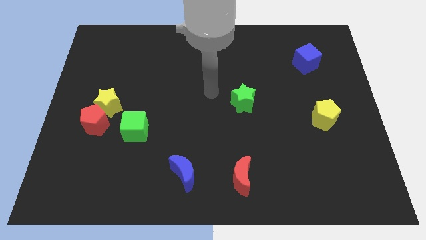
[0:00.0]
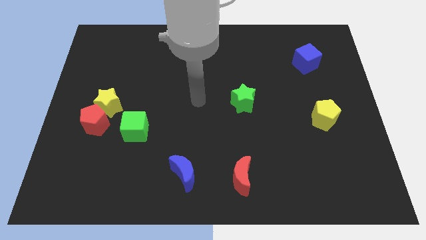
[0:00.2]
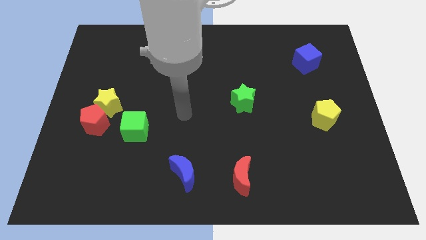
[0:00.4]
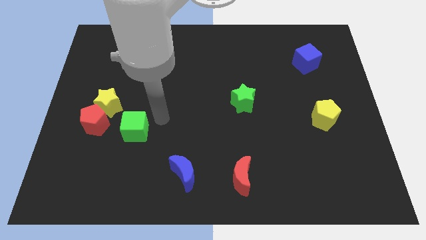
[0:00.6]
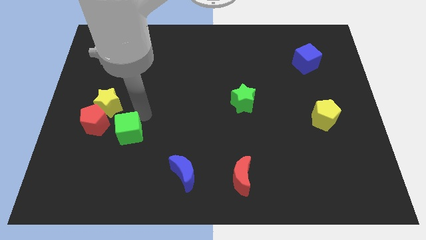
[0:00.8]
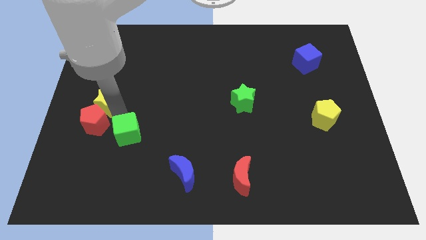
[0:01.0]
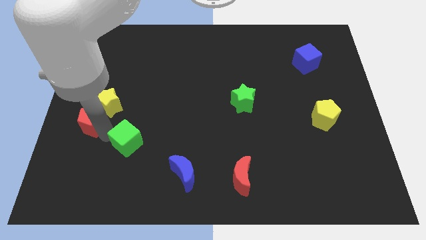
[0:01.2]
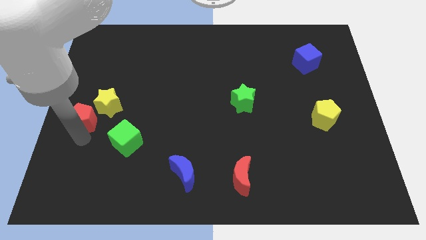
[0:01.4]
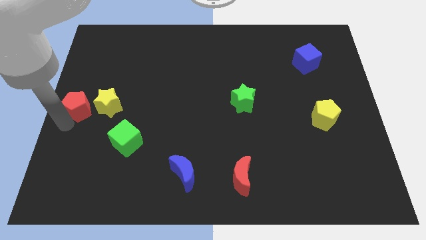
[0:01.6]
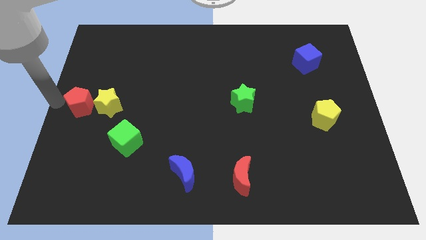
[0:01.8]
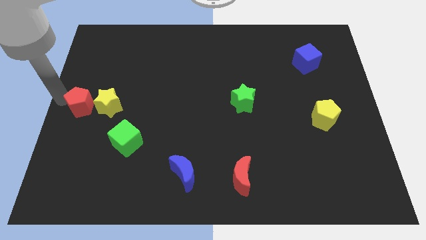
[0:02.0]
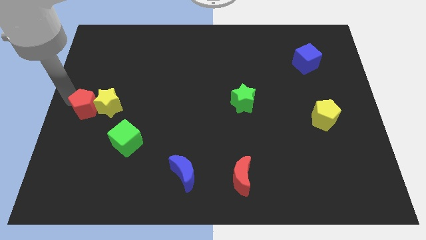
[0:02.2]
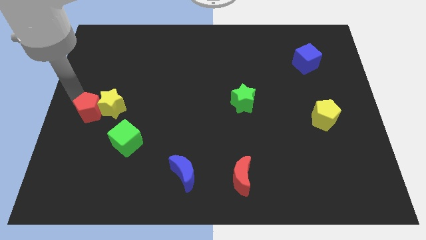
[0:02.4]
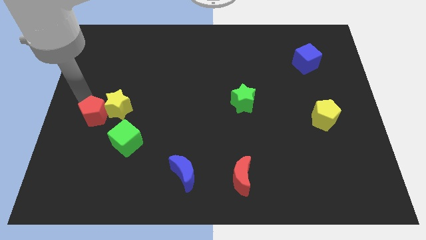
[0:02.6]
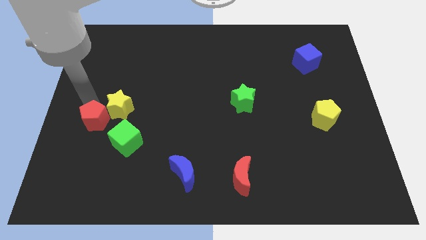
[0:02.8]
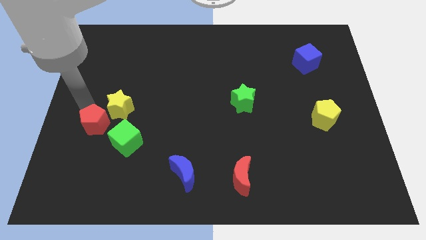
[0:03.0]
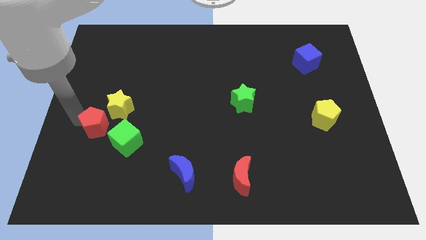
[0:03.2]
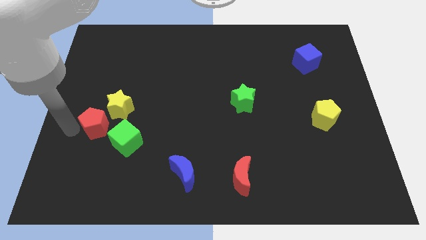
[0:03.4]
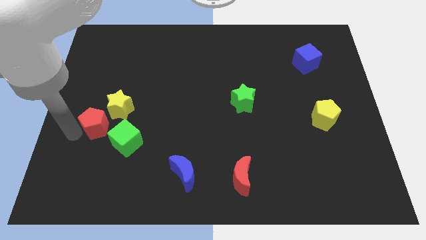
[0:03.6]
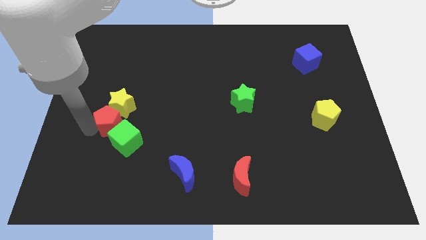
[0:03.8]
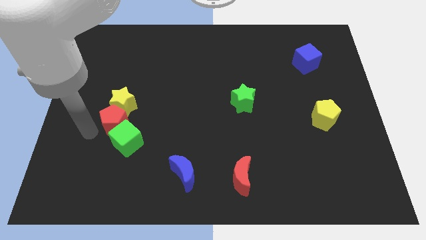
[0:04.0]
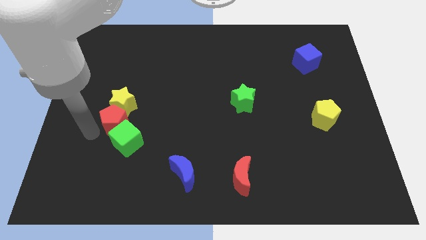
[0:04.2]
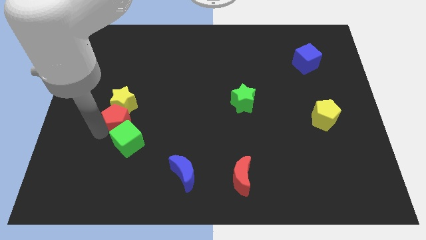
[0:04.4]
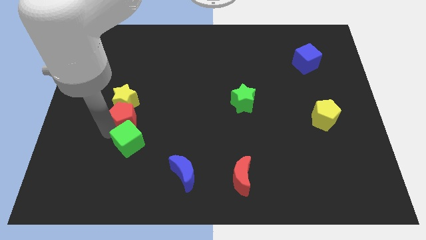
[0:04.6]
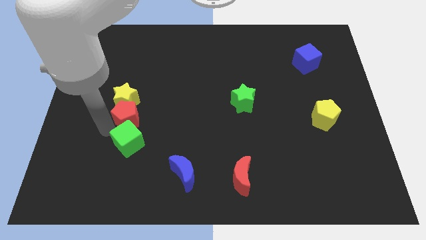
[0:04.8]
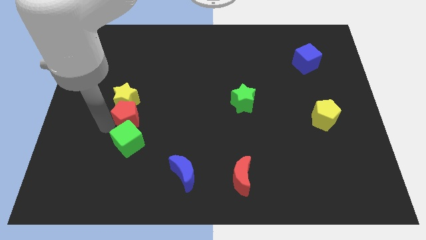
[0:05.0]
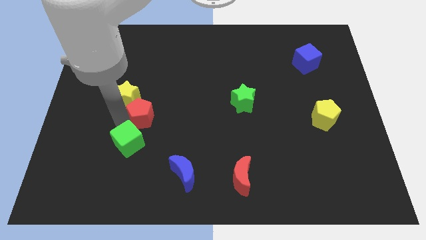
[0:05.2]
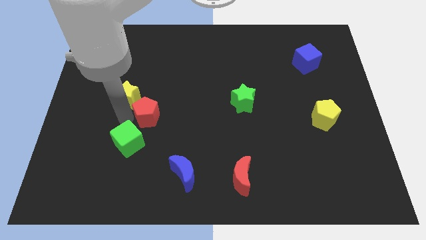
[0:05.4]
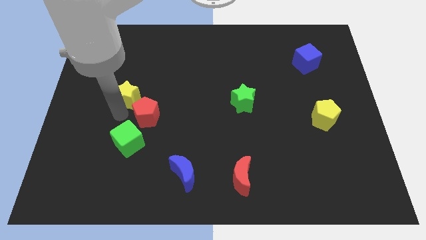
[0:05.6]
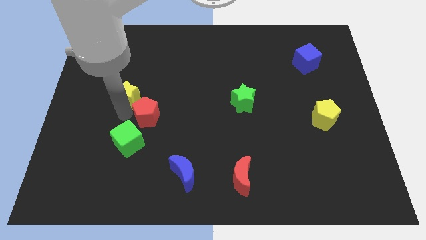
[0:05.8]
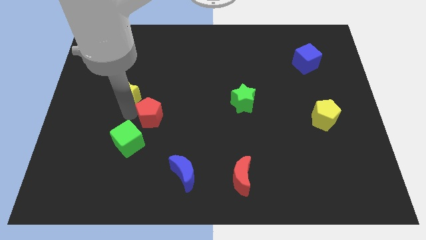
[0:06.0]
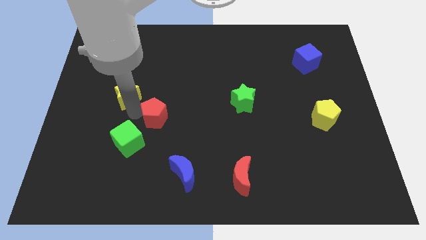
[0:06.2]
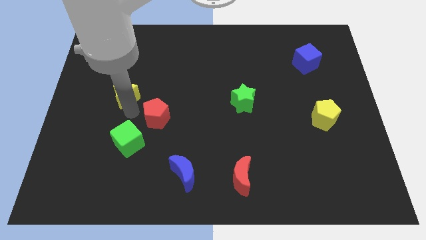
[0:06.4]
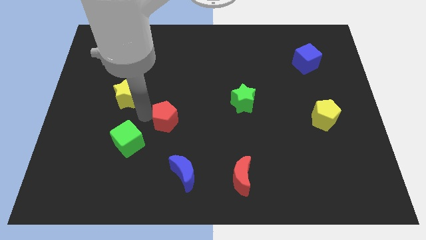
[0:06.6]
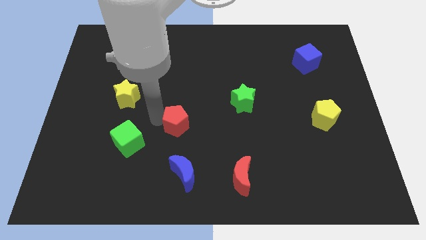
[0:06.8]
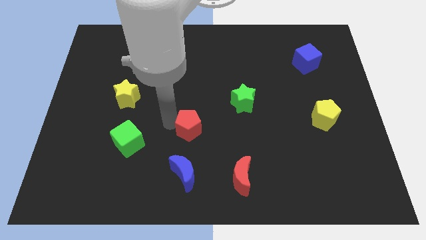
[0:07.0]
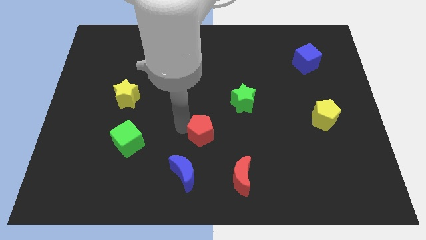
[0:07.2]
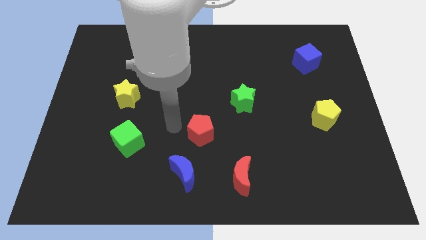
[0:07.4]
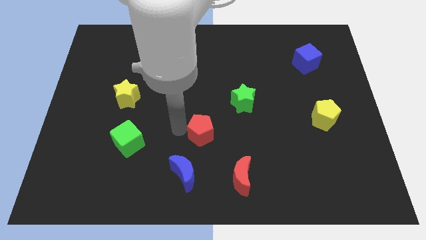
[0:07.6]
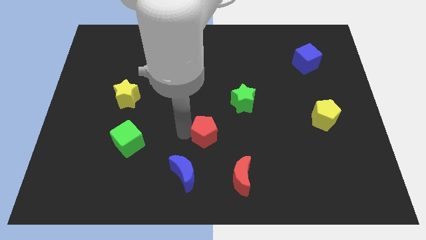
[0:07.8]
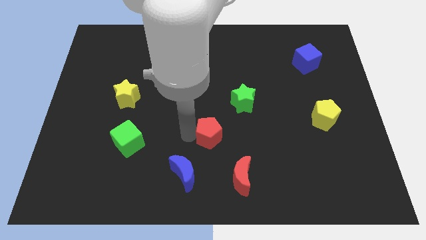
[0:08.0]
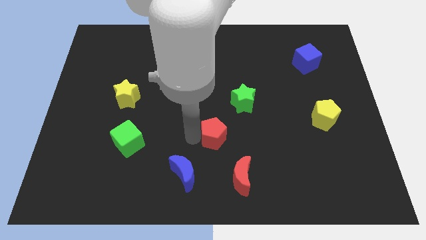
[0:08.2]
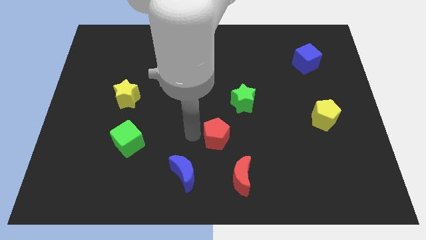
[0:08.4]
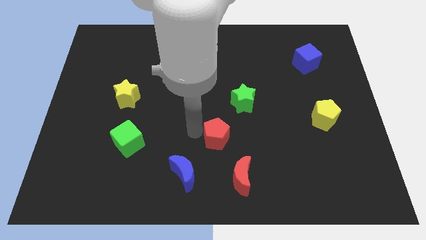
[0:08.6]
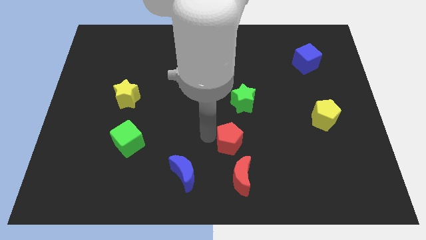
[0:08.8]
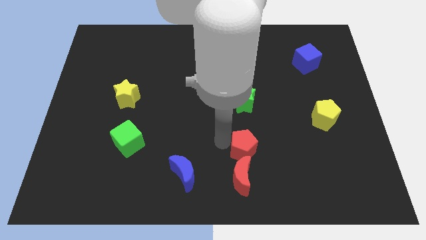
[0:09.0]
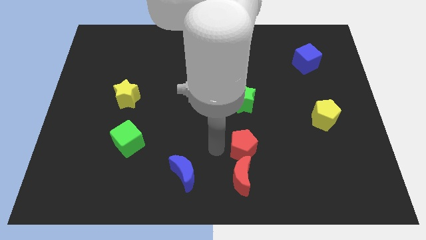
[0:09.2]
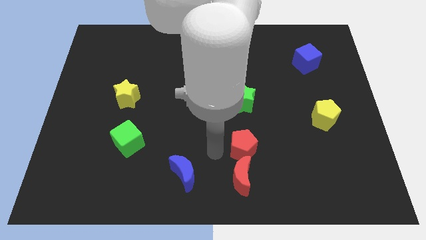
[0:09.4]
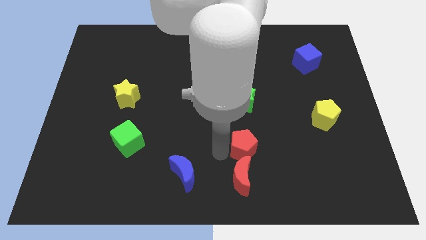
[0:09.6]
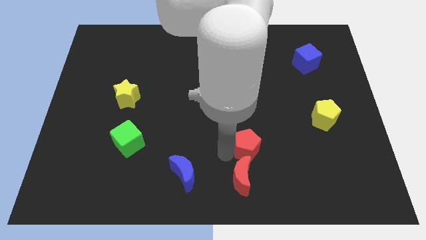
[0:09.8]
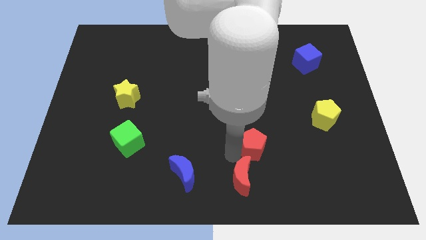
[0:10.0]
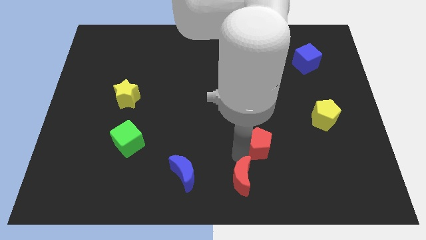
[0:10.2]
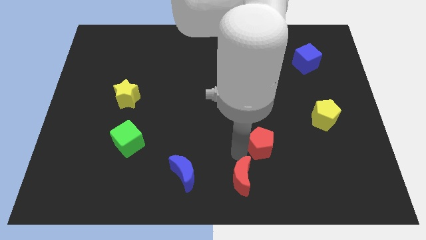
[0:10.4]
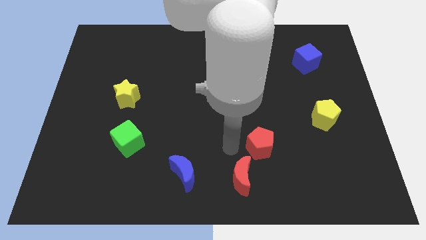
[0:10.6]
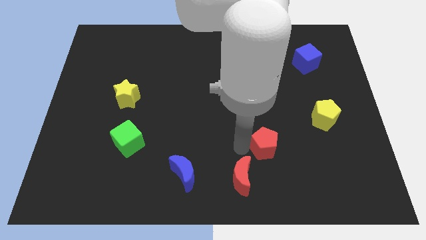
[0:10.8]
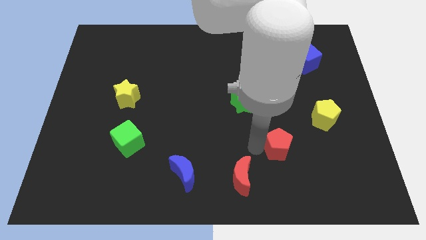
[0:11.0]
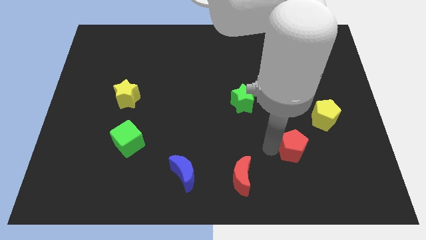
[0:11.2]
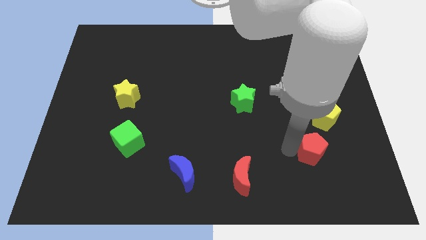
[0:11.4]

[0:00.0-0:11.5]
push the red pentagon below the yellow pentagon

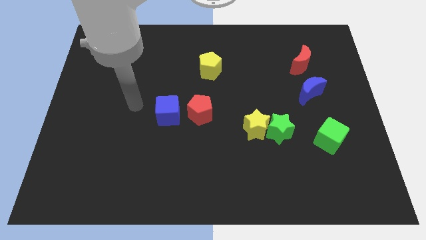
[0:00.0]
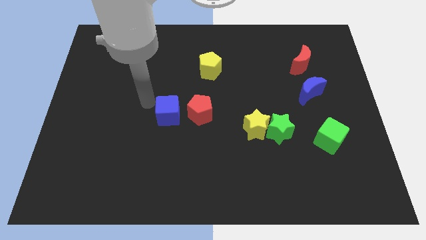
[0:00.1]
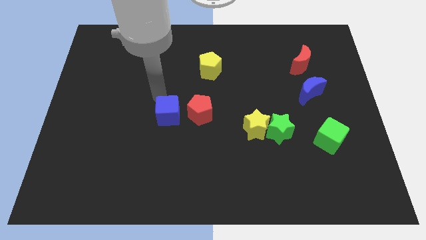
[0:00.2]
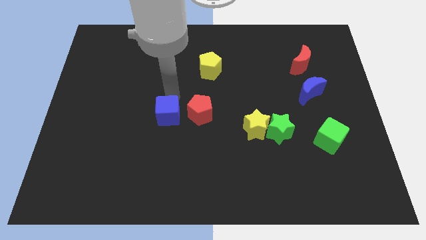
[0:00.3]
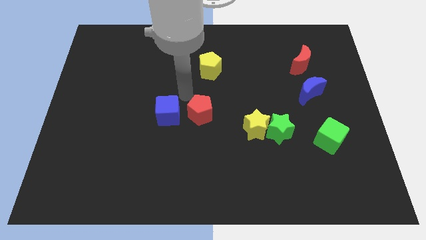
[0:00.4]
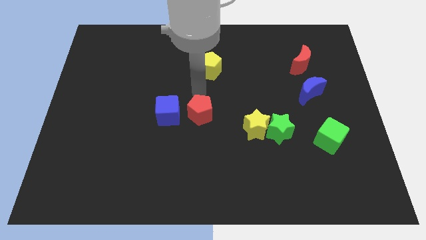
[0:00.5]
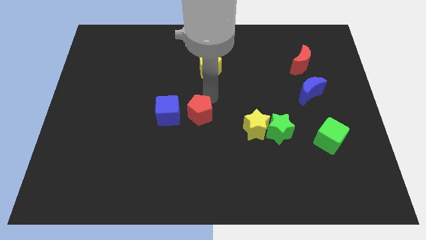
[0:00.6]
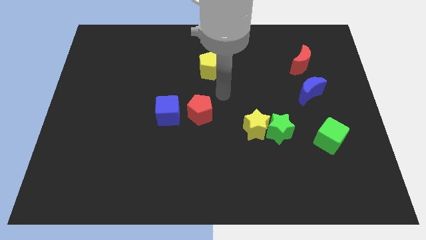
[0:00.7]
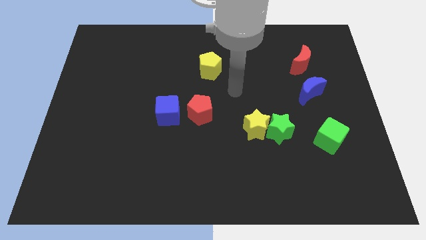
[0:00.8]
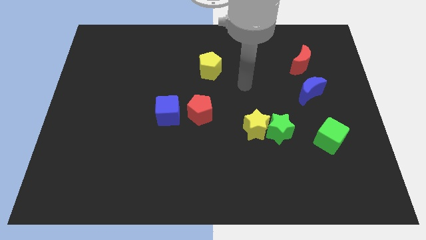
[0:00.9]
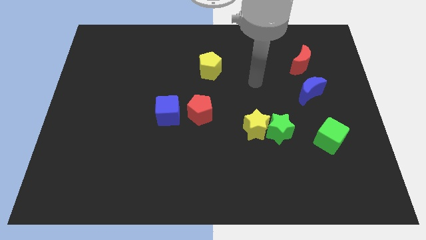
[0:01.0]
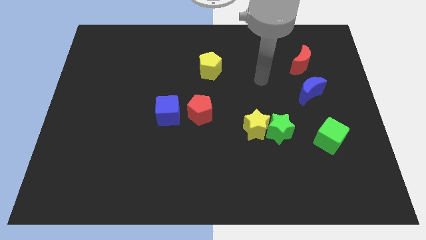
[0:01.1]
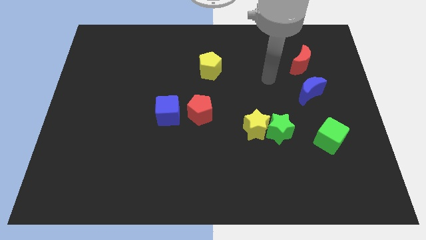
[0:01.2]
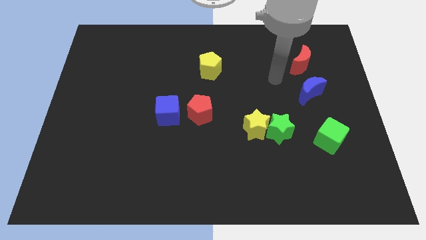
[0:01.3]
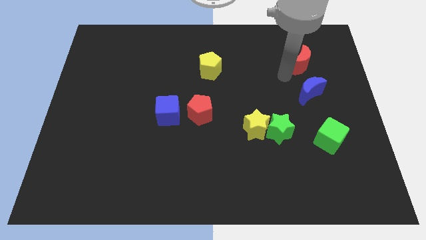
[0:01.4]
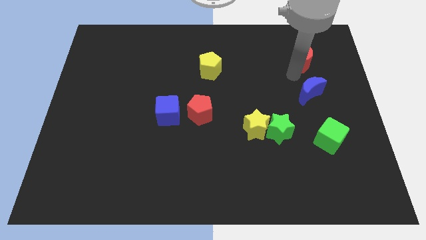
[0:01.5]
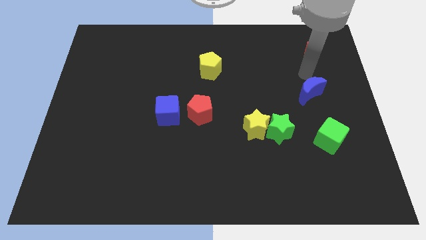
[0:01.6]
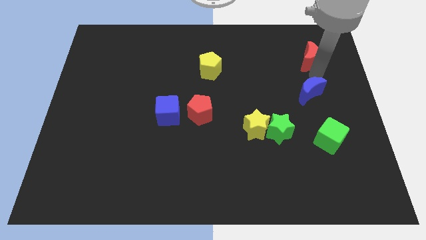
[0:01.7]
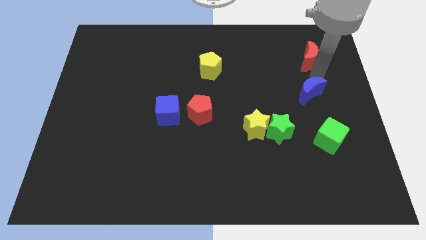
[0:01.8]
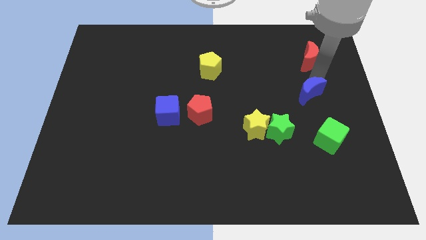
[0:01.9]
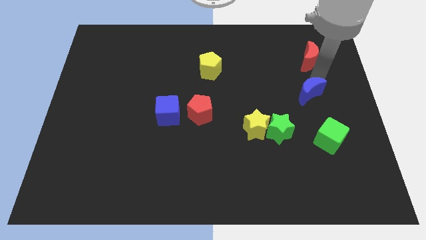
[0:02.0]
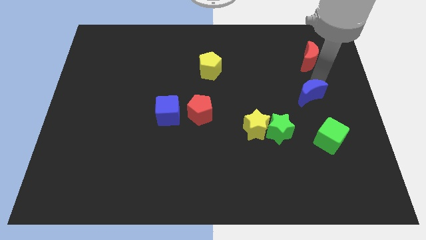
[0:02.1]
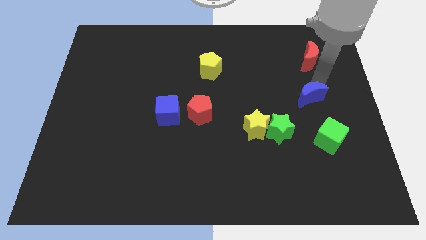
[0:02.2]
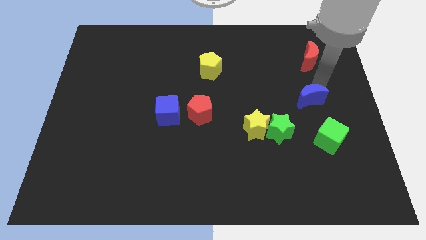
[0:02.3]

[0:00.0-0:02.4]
slide the blue moon diagonally up and to the right of the green star
